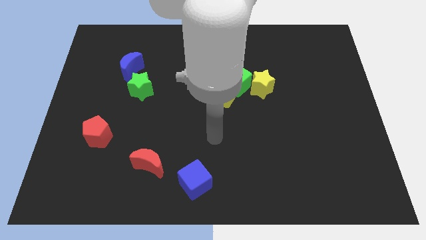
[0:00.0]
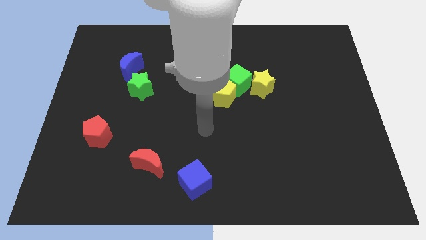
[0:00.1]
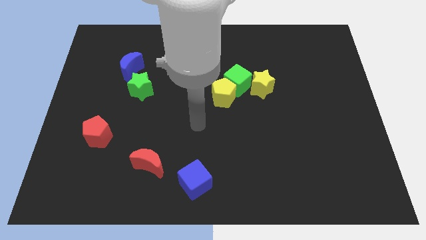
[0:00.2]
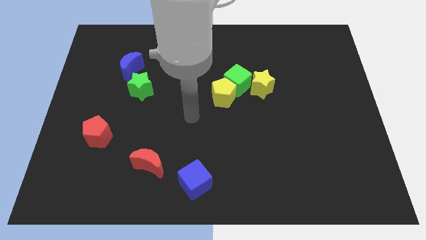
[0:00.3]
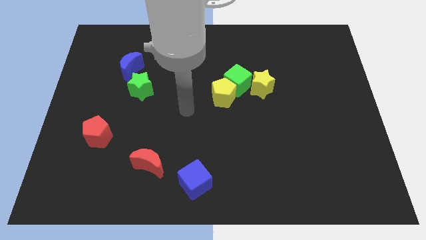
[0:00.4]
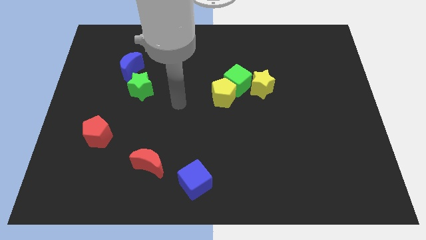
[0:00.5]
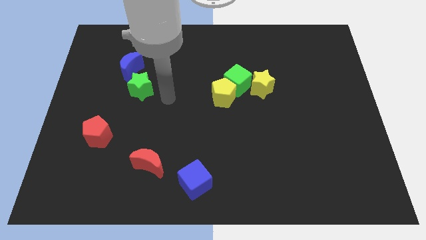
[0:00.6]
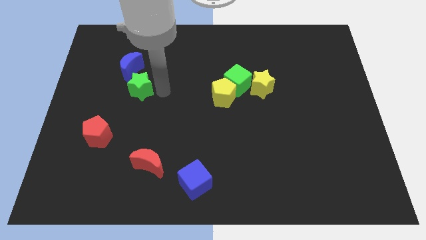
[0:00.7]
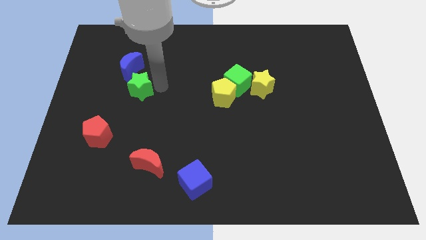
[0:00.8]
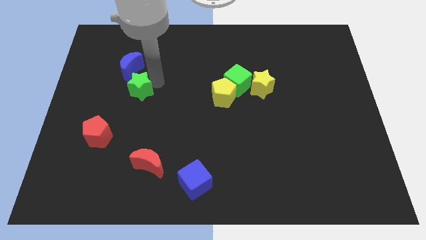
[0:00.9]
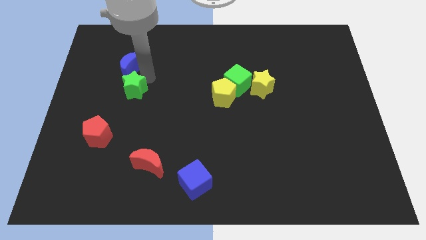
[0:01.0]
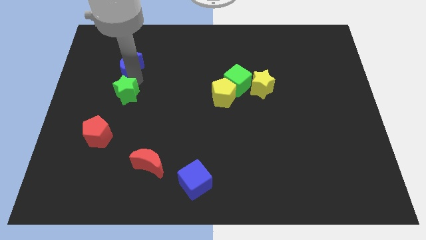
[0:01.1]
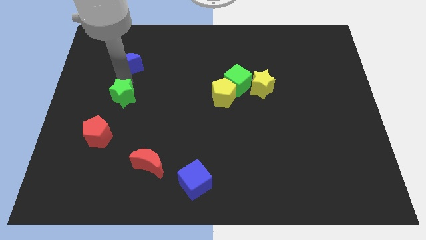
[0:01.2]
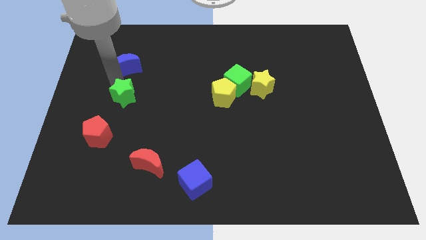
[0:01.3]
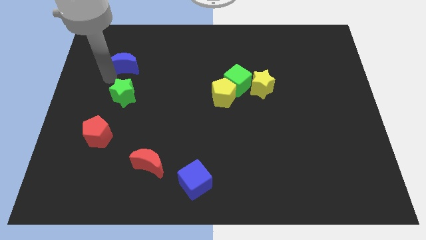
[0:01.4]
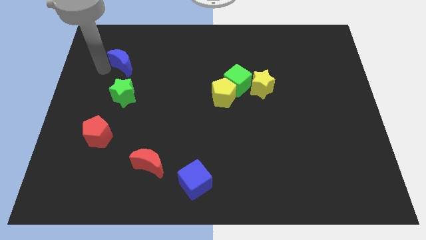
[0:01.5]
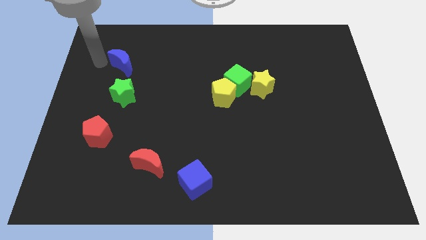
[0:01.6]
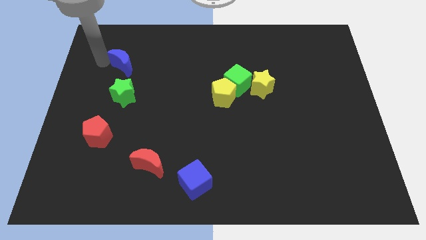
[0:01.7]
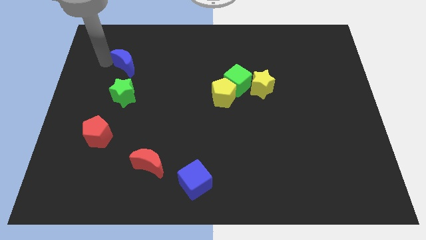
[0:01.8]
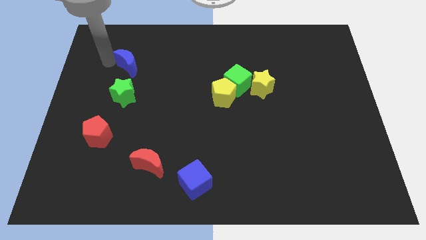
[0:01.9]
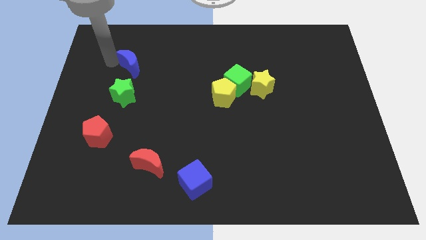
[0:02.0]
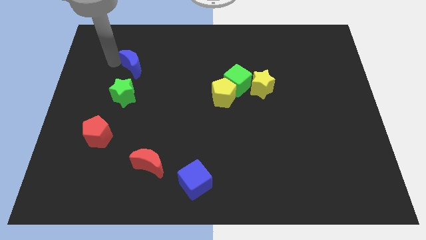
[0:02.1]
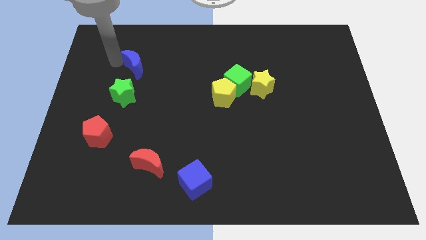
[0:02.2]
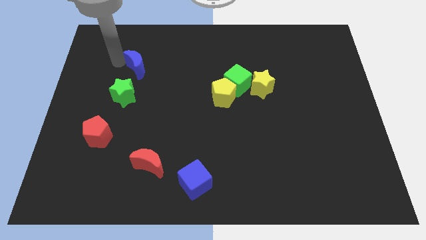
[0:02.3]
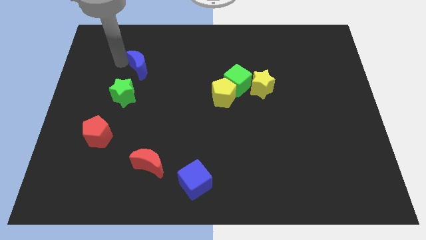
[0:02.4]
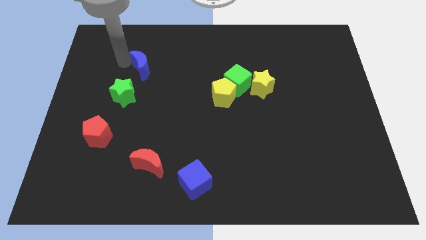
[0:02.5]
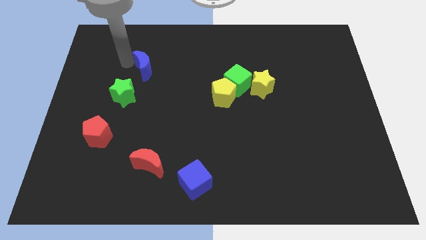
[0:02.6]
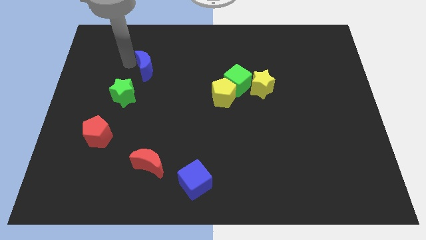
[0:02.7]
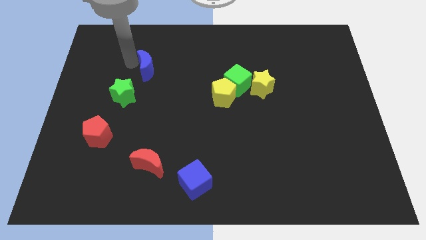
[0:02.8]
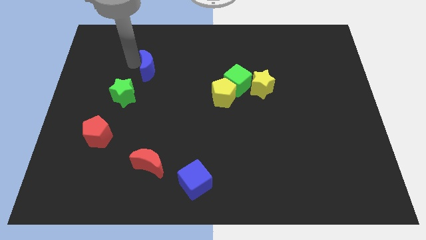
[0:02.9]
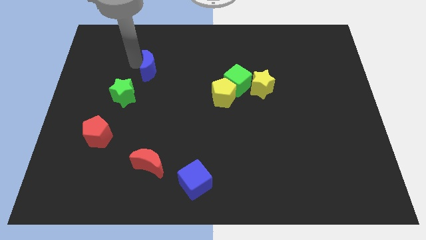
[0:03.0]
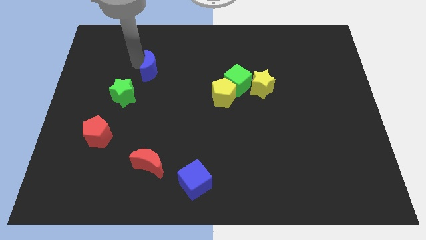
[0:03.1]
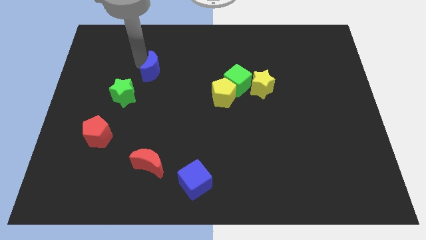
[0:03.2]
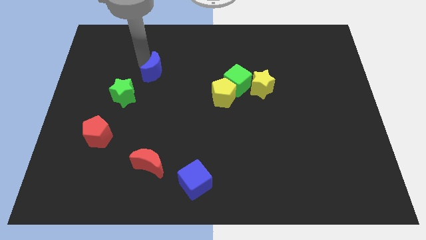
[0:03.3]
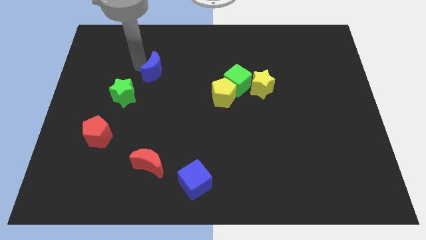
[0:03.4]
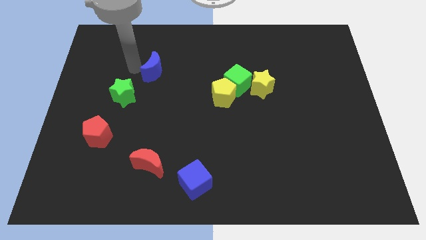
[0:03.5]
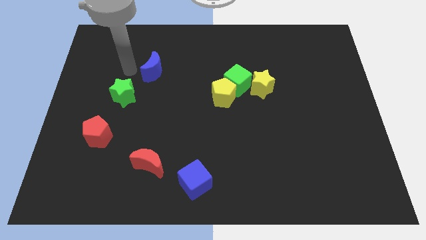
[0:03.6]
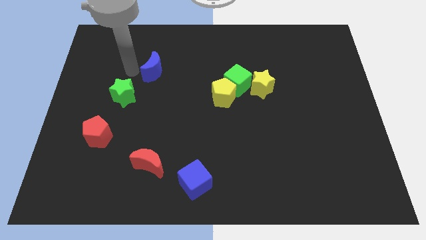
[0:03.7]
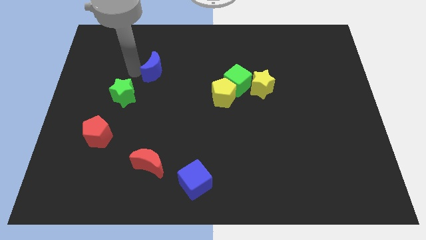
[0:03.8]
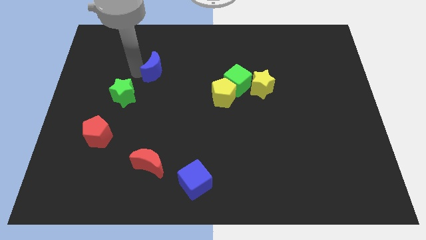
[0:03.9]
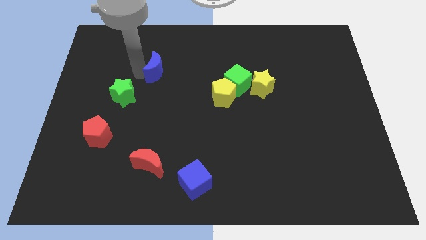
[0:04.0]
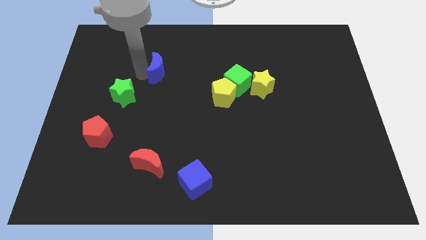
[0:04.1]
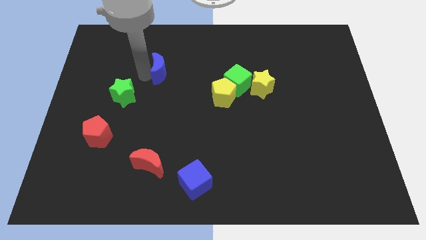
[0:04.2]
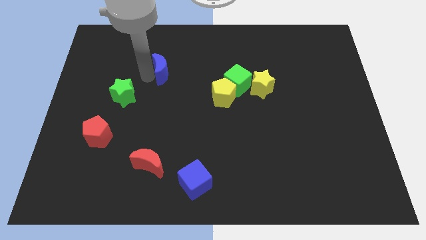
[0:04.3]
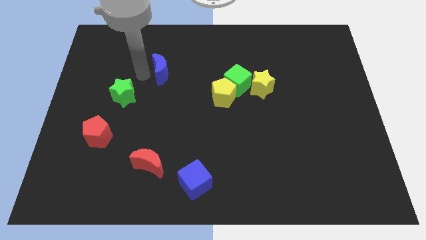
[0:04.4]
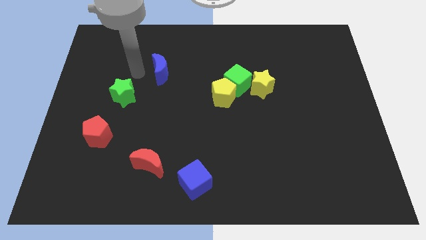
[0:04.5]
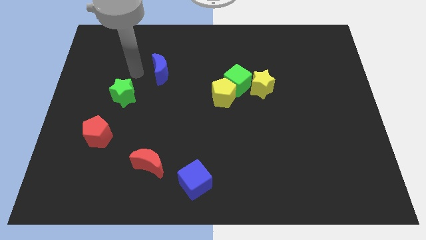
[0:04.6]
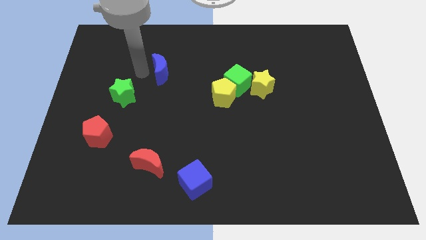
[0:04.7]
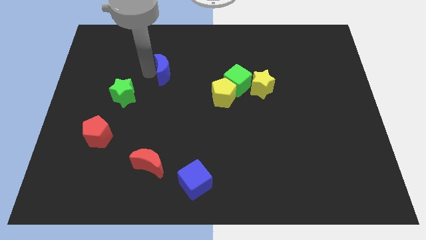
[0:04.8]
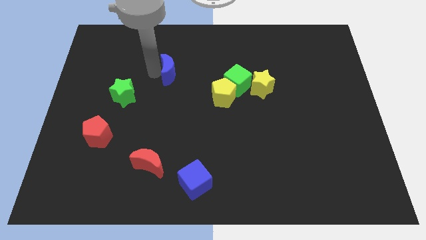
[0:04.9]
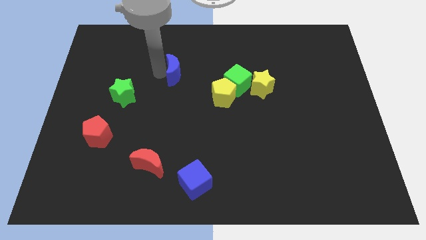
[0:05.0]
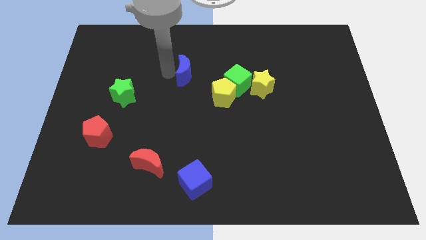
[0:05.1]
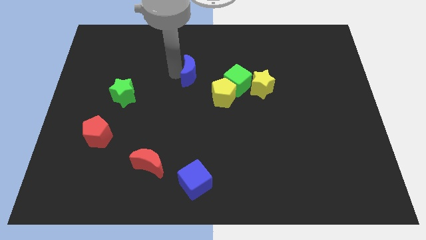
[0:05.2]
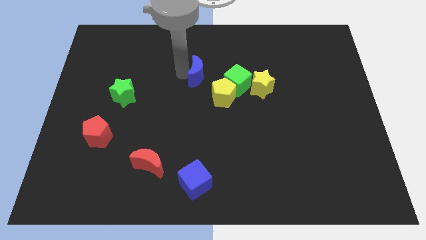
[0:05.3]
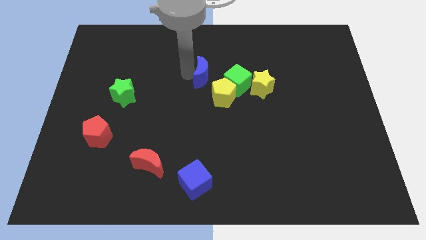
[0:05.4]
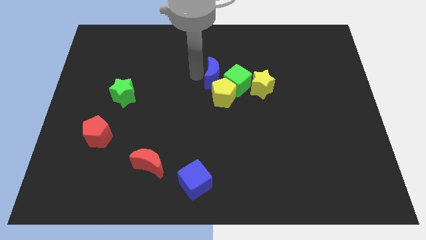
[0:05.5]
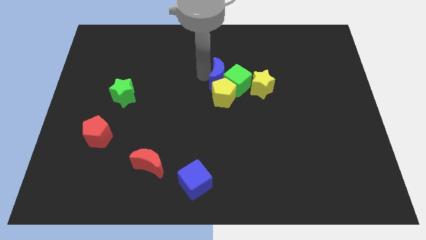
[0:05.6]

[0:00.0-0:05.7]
put the blue moon towards the green cube

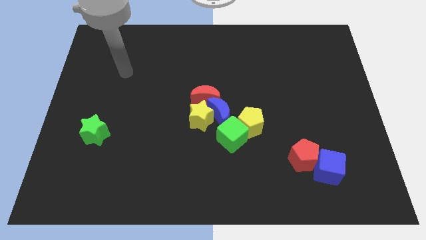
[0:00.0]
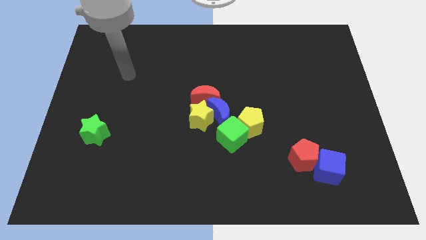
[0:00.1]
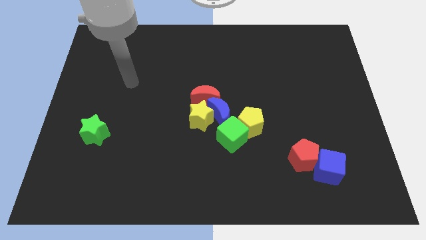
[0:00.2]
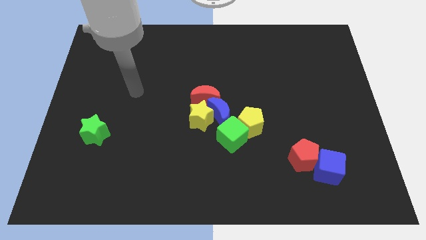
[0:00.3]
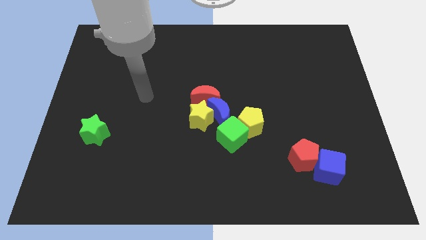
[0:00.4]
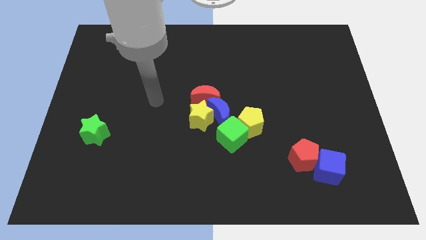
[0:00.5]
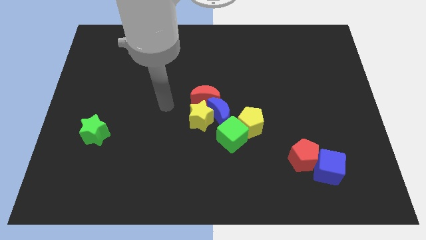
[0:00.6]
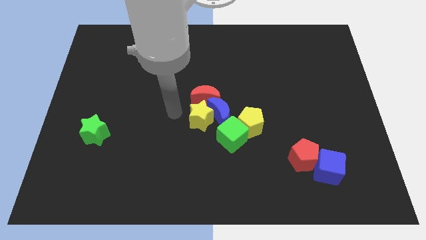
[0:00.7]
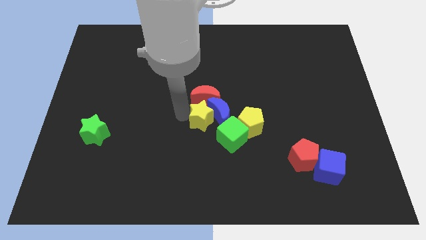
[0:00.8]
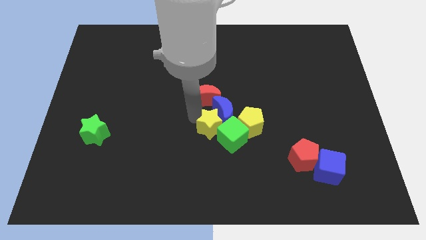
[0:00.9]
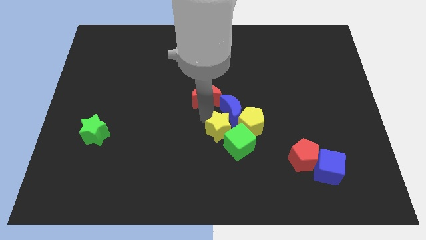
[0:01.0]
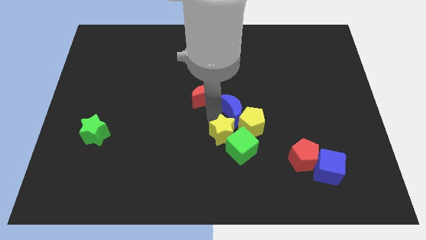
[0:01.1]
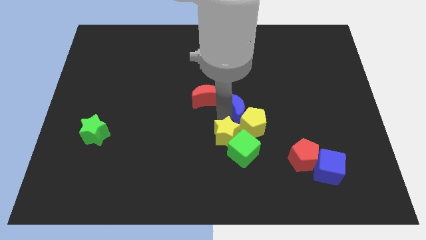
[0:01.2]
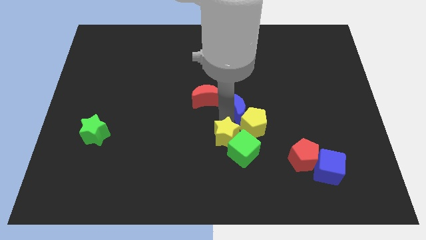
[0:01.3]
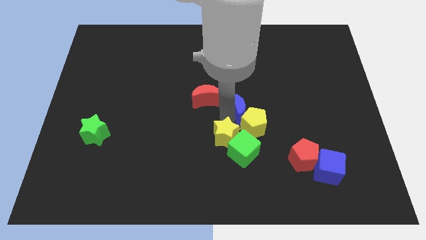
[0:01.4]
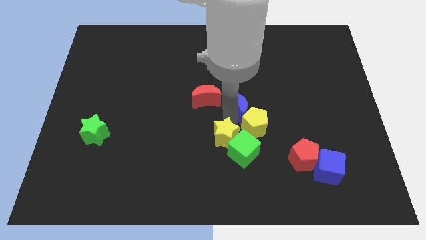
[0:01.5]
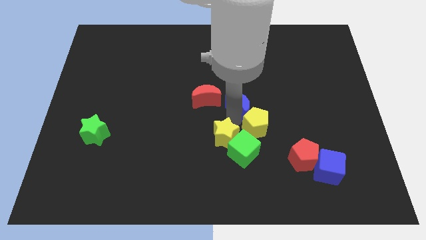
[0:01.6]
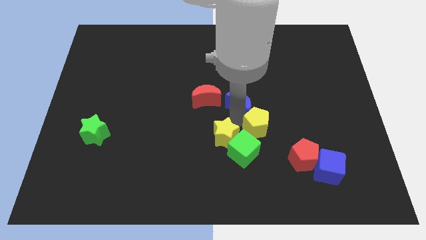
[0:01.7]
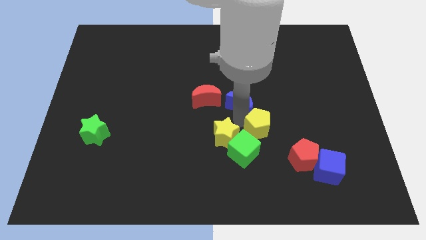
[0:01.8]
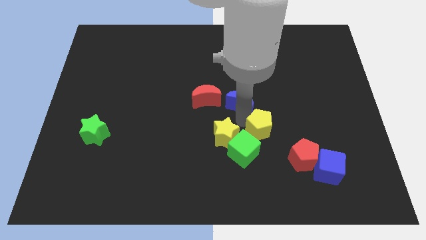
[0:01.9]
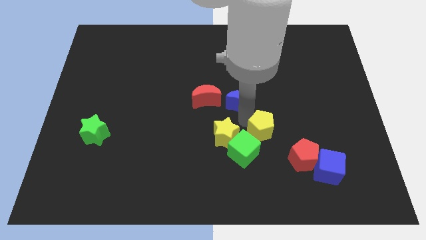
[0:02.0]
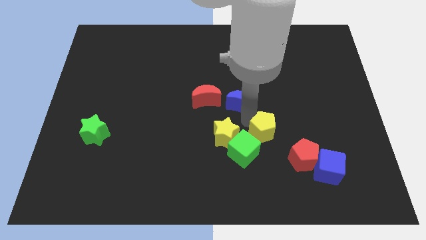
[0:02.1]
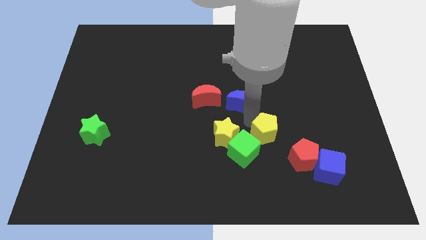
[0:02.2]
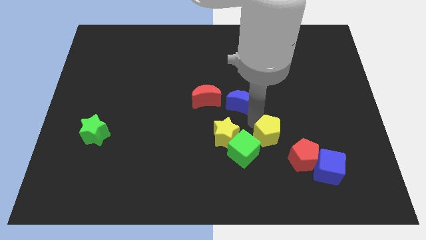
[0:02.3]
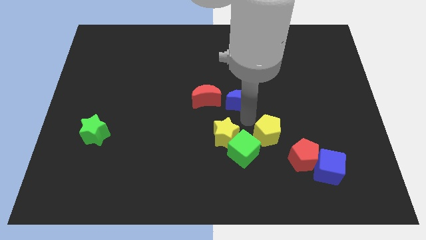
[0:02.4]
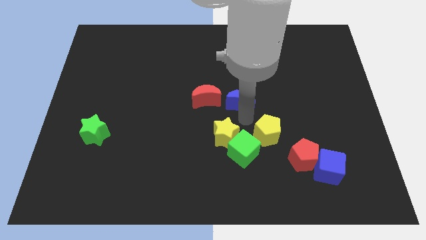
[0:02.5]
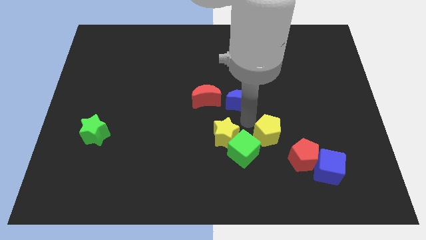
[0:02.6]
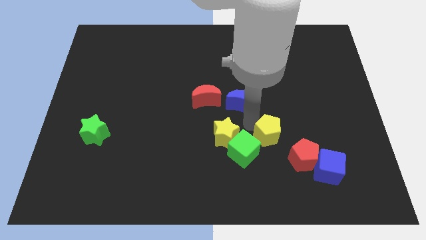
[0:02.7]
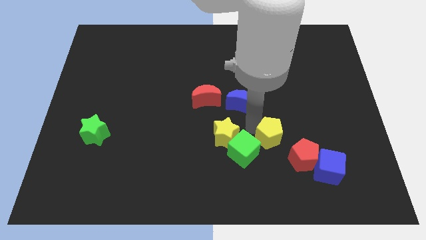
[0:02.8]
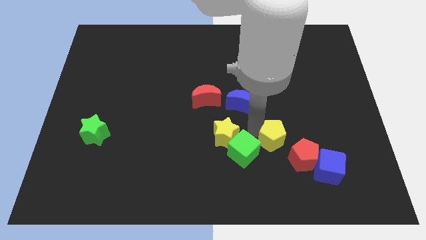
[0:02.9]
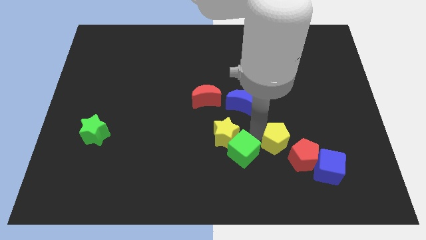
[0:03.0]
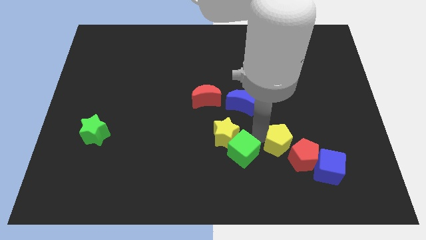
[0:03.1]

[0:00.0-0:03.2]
push the yellow pentagon to the red pentagon
